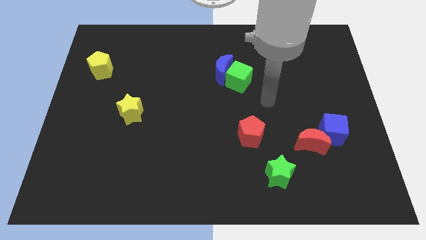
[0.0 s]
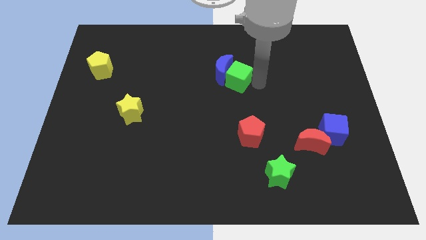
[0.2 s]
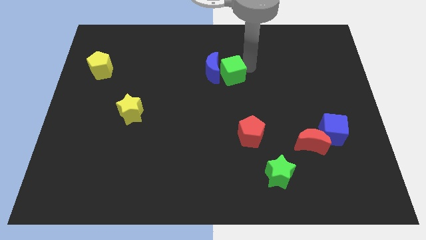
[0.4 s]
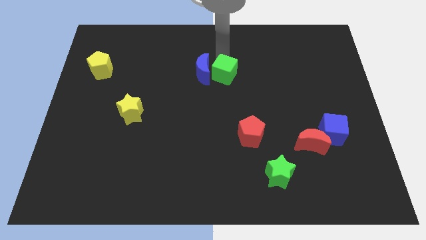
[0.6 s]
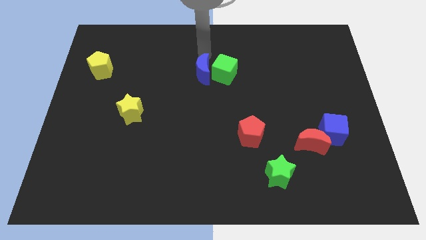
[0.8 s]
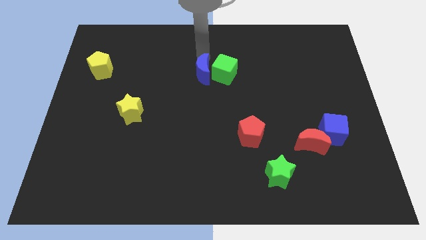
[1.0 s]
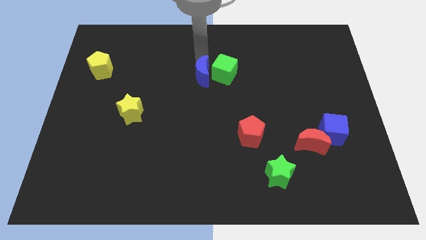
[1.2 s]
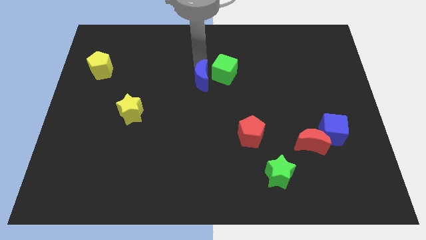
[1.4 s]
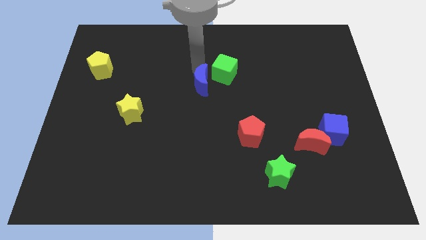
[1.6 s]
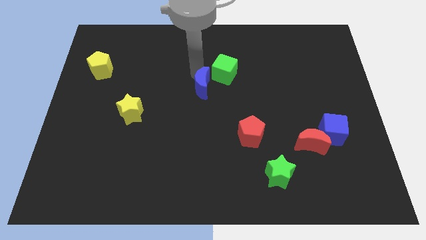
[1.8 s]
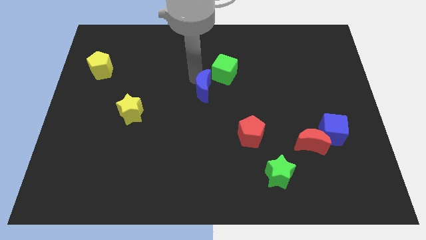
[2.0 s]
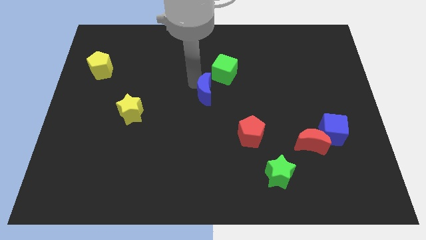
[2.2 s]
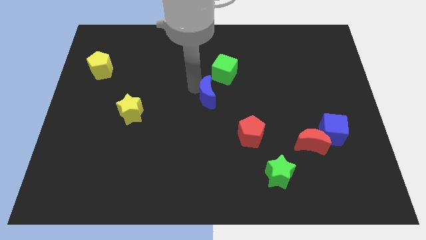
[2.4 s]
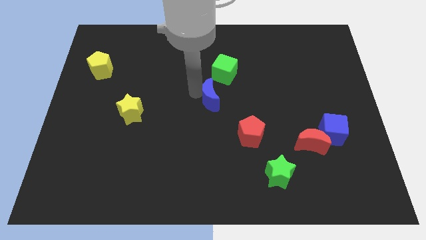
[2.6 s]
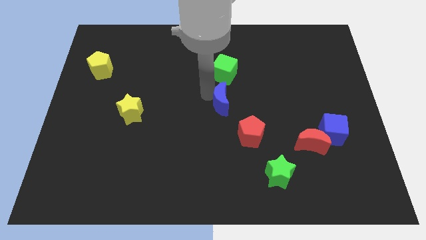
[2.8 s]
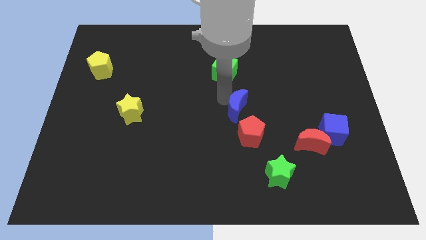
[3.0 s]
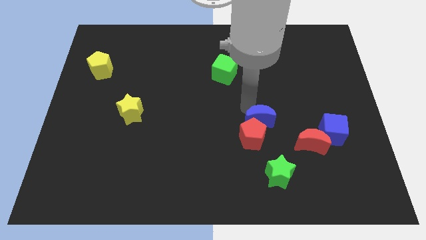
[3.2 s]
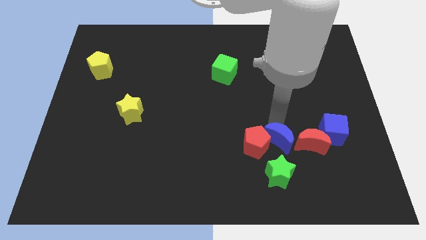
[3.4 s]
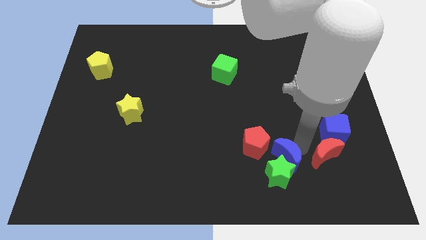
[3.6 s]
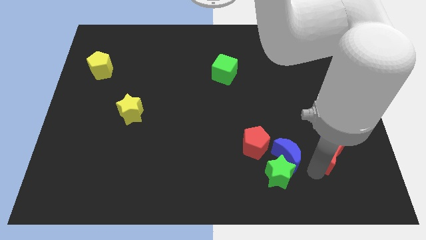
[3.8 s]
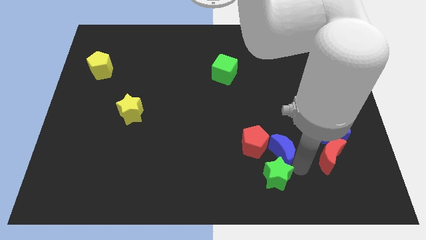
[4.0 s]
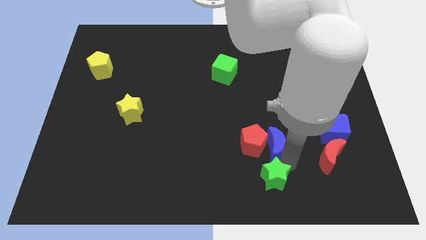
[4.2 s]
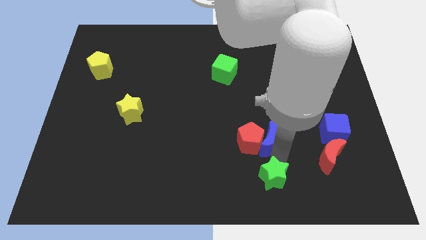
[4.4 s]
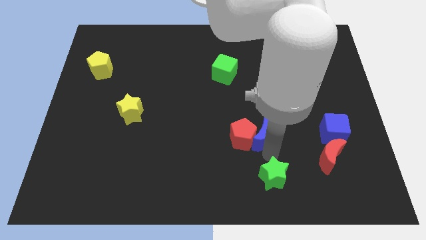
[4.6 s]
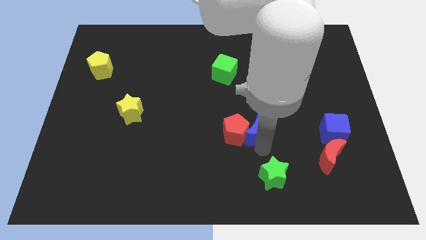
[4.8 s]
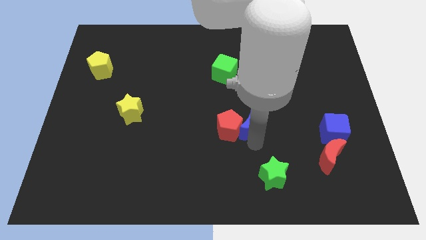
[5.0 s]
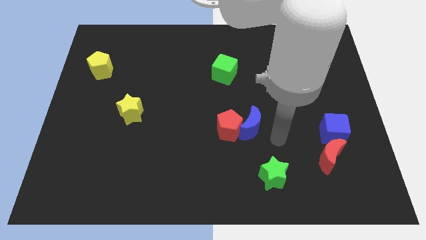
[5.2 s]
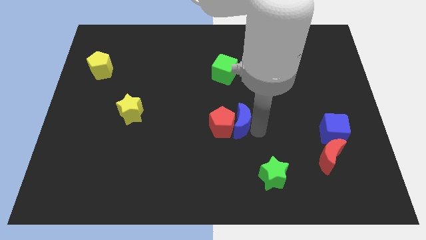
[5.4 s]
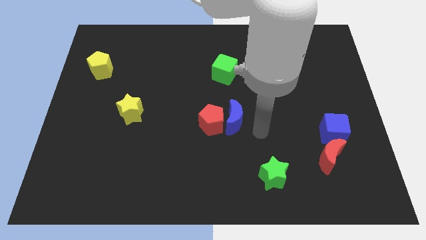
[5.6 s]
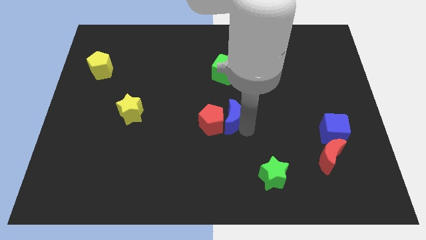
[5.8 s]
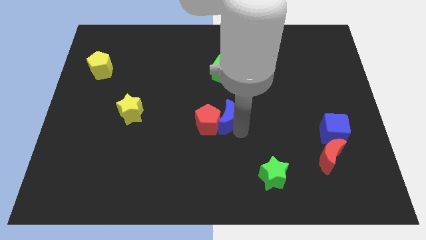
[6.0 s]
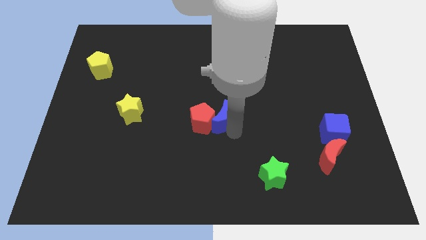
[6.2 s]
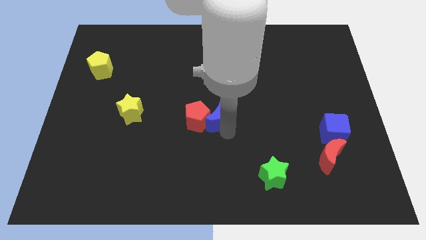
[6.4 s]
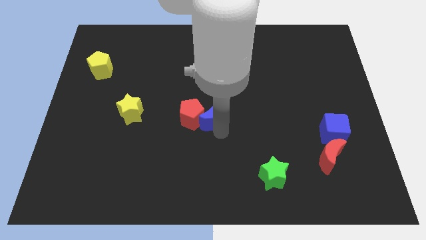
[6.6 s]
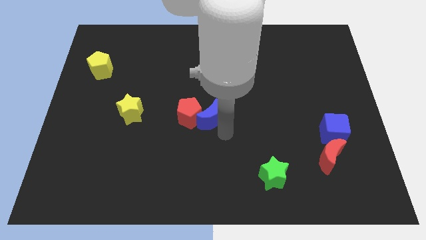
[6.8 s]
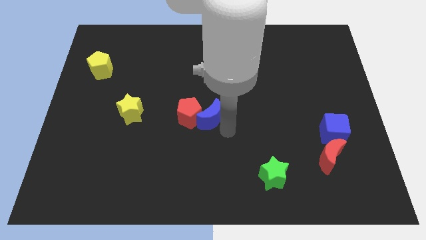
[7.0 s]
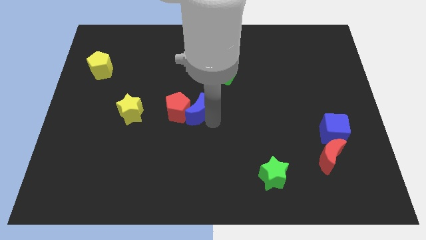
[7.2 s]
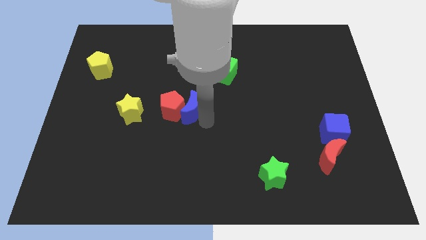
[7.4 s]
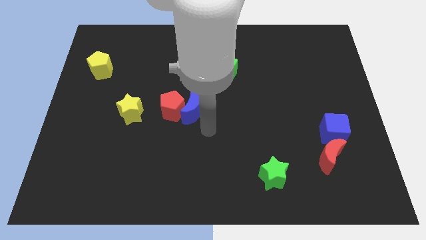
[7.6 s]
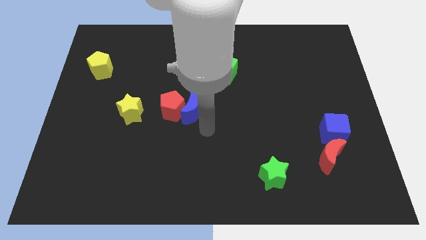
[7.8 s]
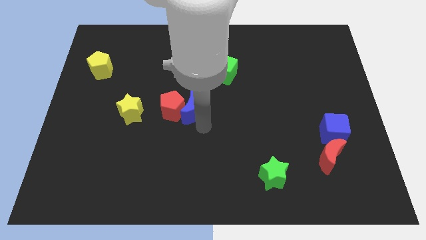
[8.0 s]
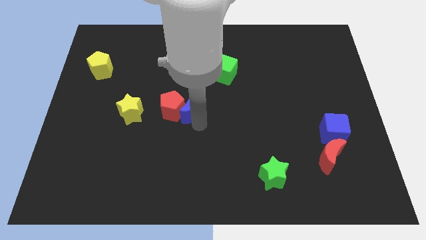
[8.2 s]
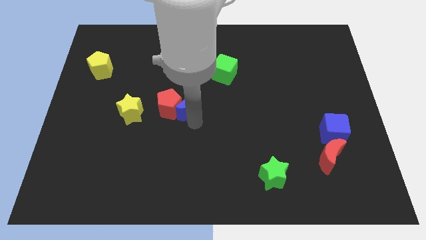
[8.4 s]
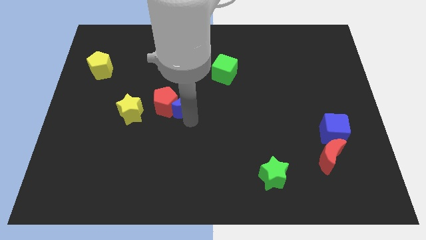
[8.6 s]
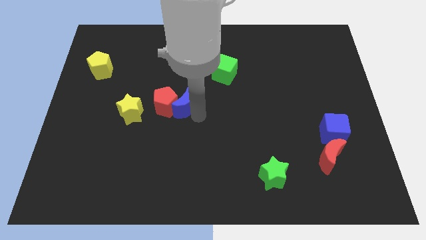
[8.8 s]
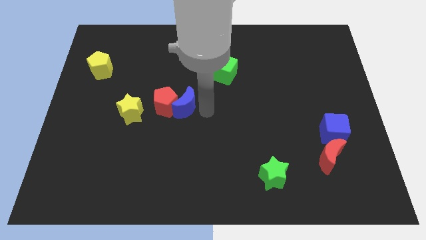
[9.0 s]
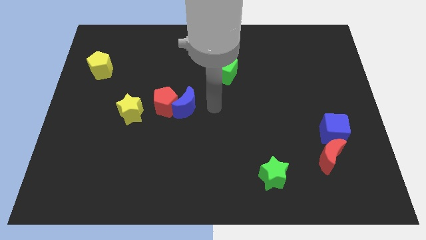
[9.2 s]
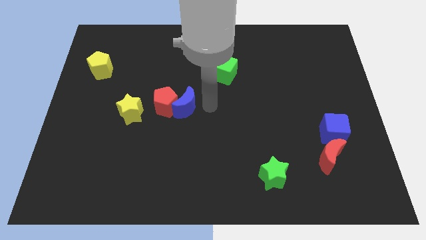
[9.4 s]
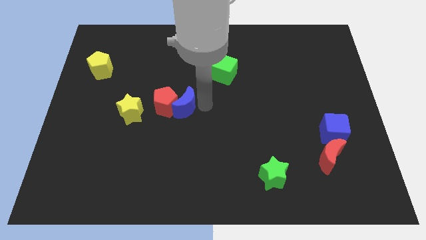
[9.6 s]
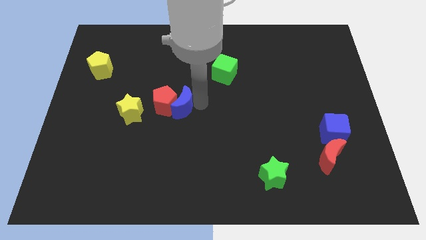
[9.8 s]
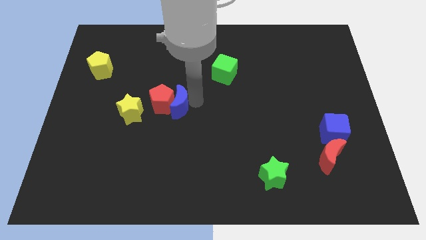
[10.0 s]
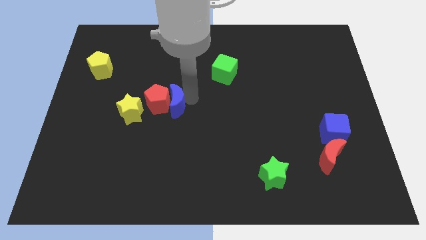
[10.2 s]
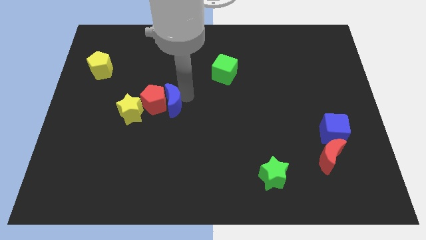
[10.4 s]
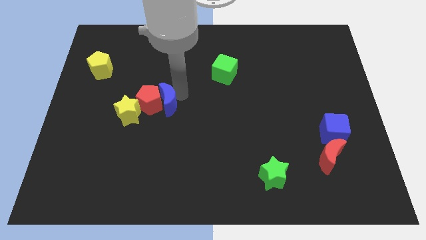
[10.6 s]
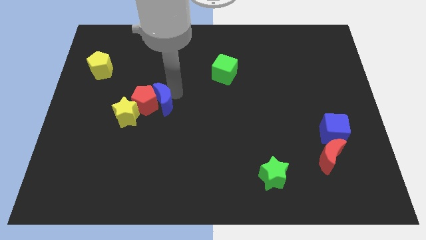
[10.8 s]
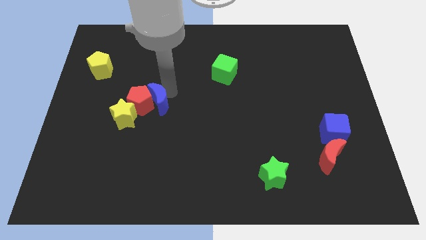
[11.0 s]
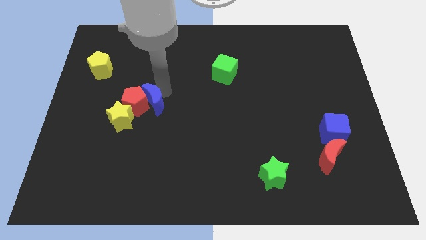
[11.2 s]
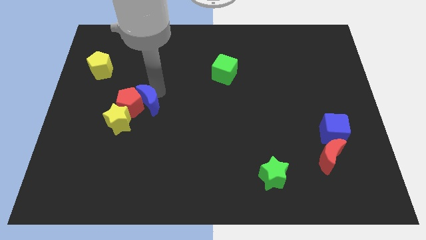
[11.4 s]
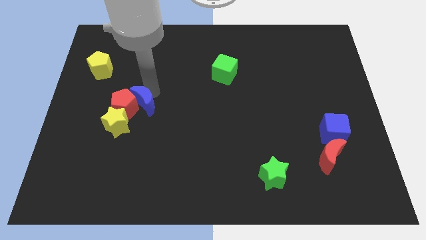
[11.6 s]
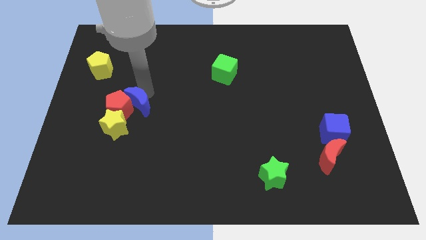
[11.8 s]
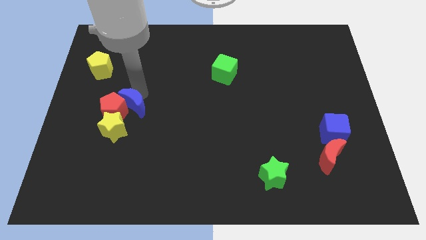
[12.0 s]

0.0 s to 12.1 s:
slide the blue moon down and then left

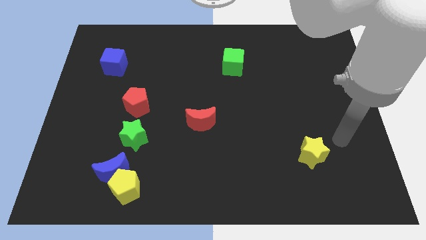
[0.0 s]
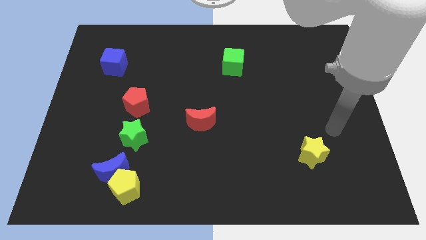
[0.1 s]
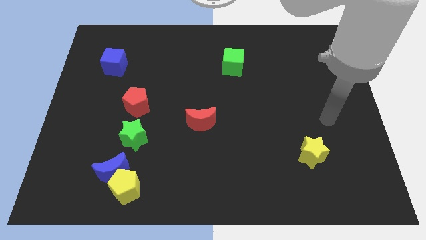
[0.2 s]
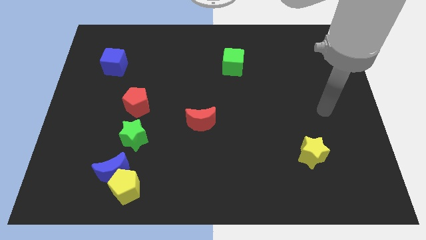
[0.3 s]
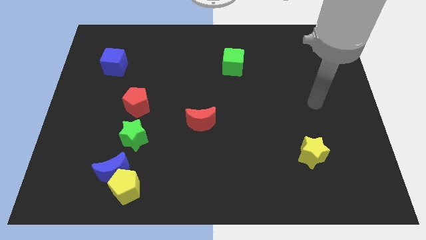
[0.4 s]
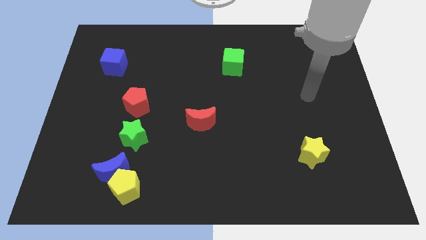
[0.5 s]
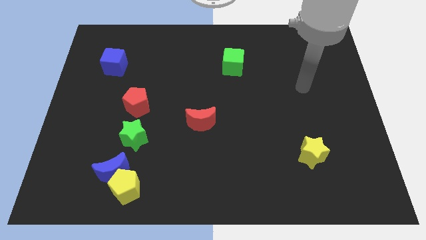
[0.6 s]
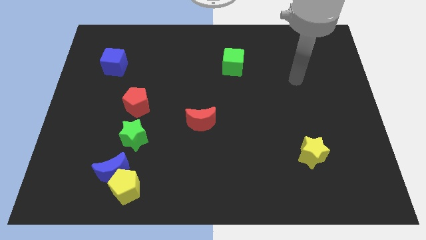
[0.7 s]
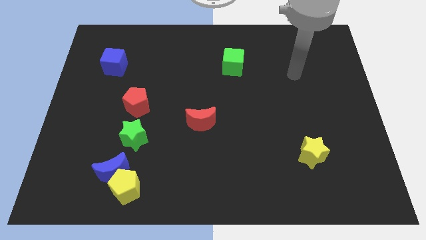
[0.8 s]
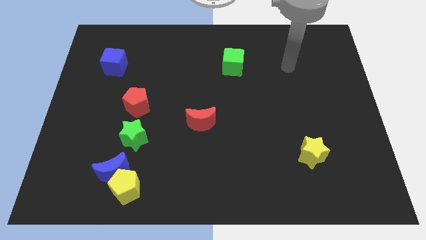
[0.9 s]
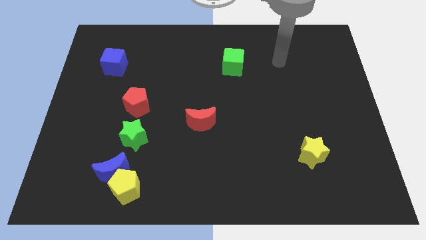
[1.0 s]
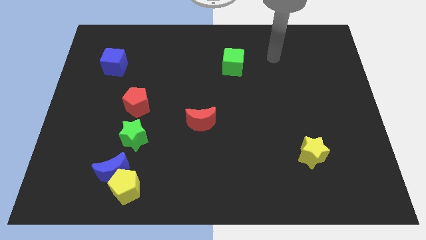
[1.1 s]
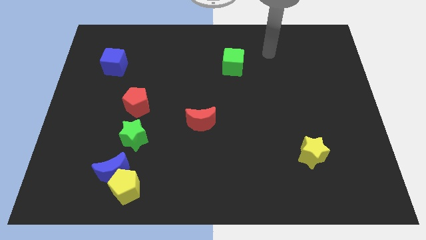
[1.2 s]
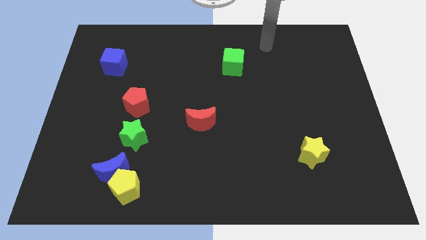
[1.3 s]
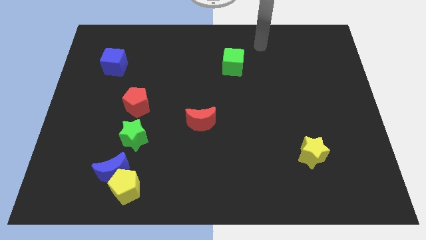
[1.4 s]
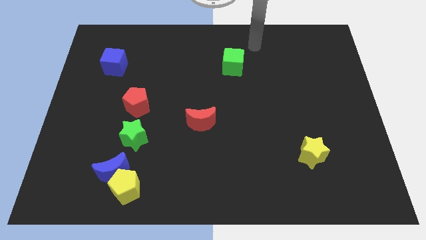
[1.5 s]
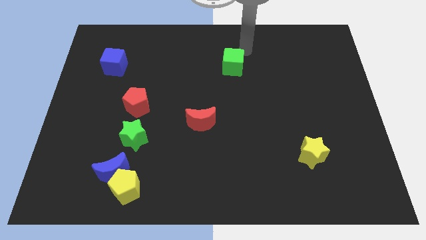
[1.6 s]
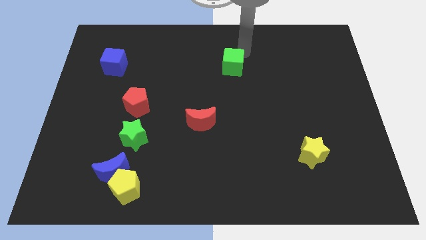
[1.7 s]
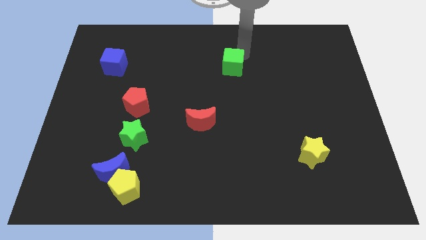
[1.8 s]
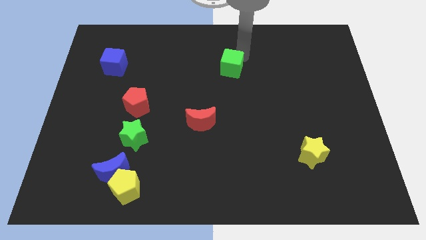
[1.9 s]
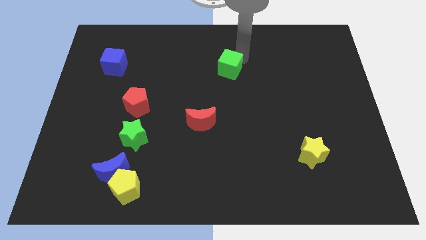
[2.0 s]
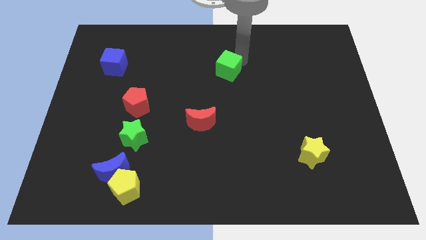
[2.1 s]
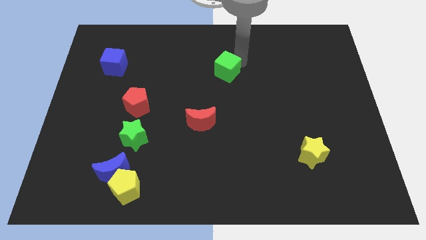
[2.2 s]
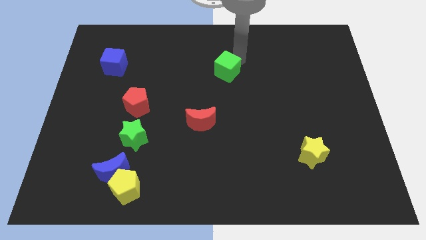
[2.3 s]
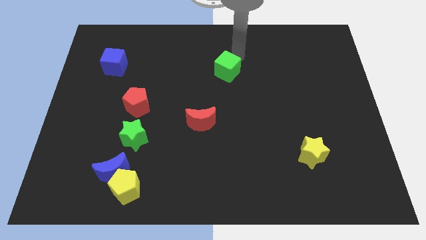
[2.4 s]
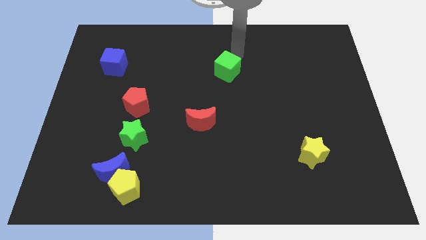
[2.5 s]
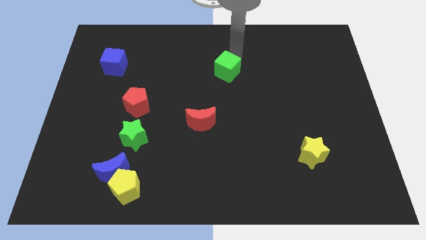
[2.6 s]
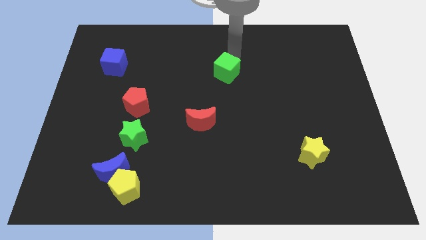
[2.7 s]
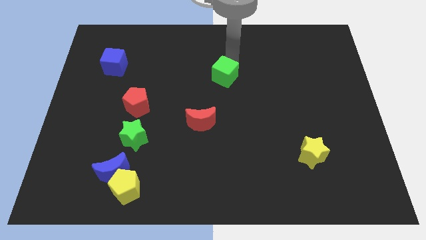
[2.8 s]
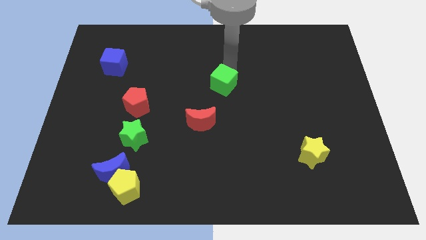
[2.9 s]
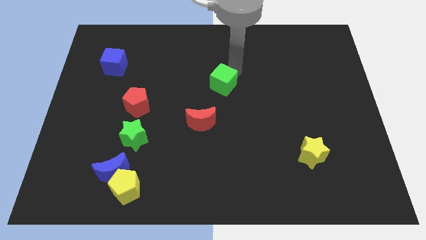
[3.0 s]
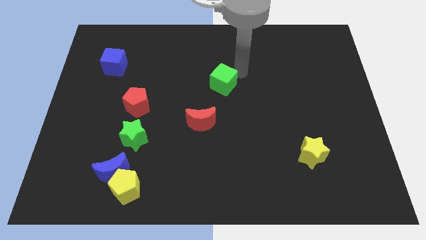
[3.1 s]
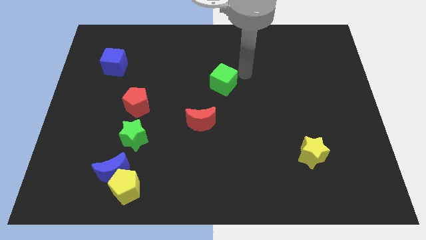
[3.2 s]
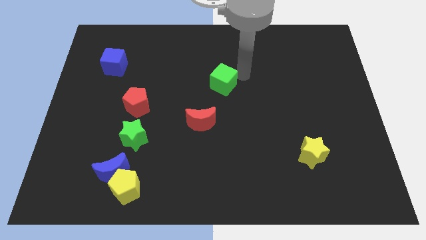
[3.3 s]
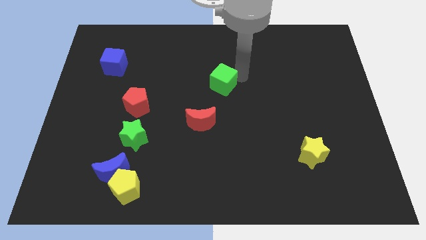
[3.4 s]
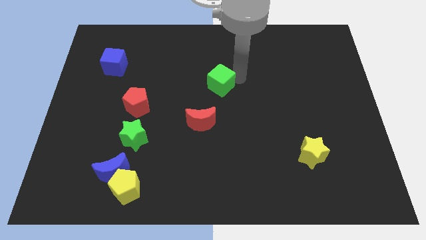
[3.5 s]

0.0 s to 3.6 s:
push the green cube a little downwards and to the left diagonally
